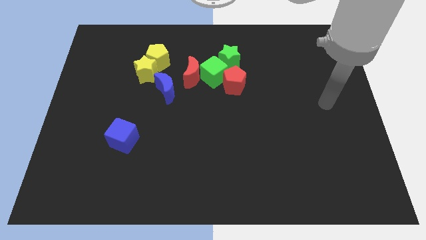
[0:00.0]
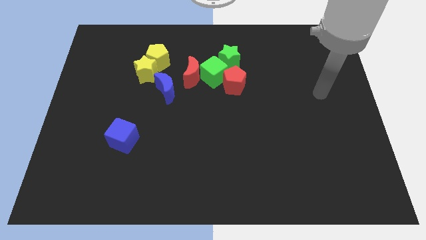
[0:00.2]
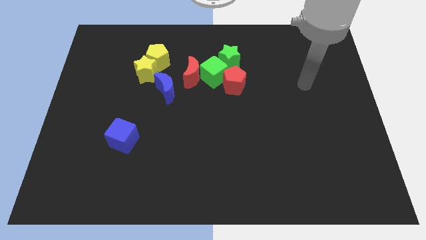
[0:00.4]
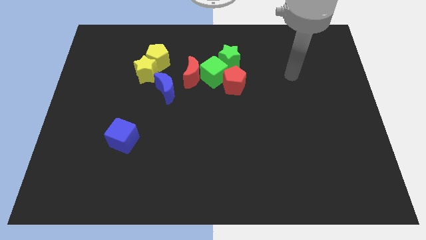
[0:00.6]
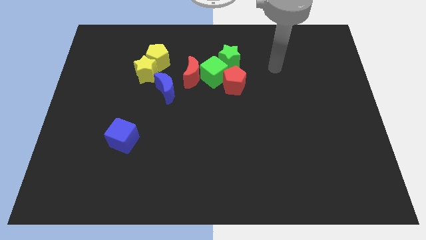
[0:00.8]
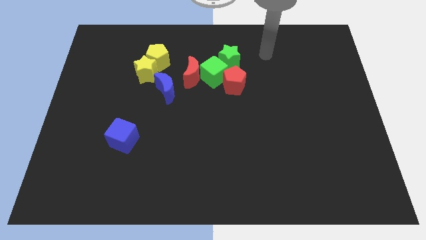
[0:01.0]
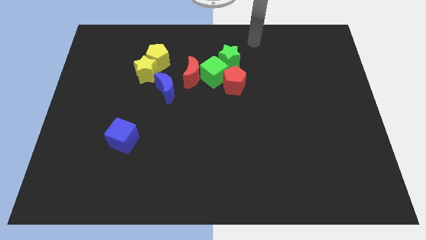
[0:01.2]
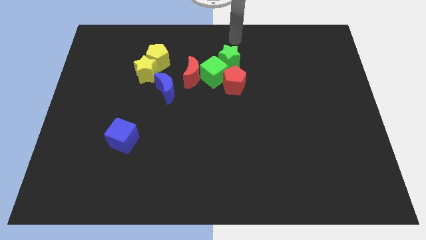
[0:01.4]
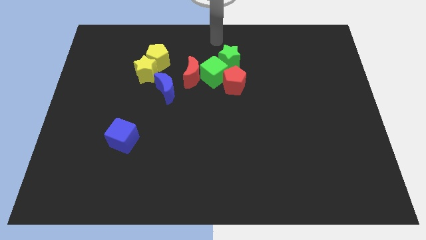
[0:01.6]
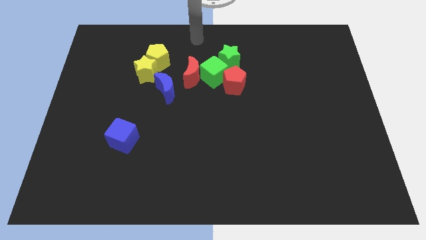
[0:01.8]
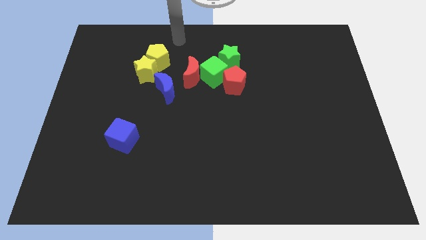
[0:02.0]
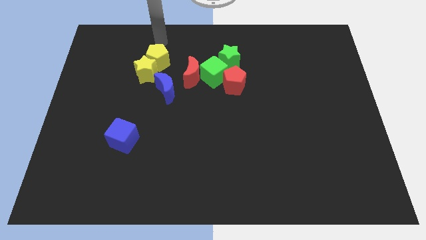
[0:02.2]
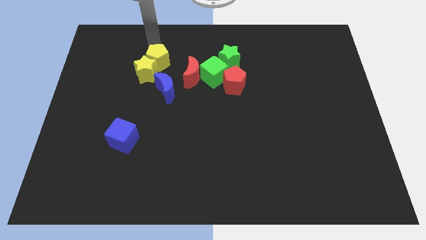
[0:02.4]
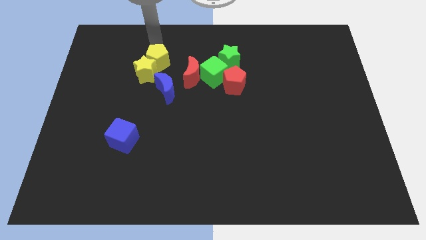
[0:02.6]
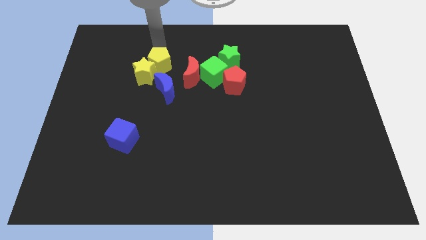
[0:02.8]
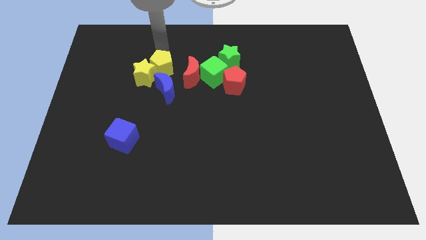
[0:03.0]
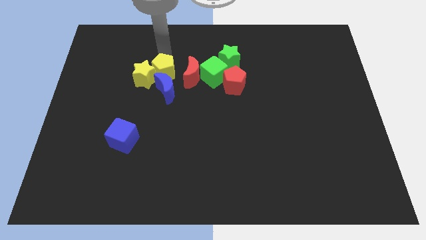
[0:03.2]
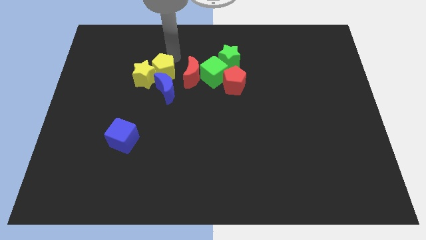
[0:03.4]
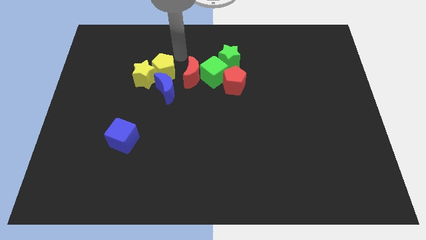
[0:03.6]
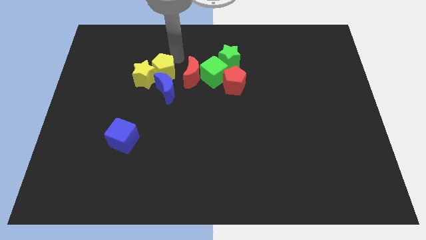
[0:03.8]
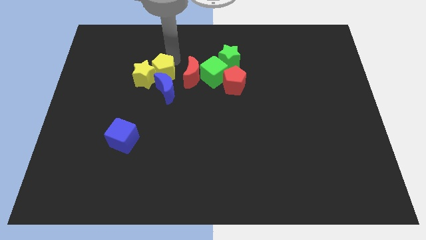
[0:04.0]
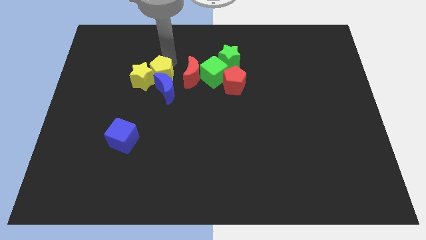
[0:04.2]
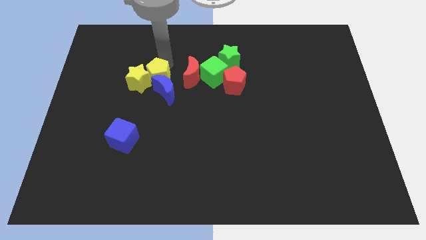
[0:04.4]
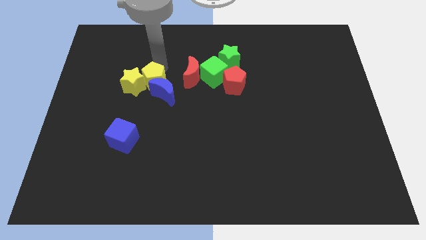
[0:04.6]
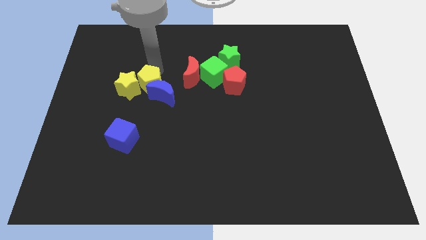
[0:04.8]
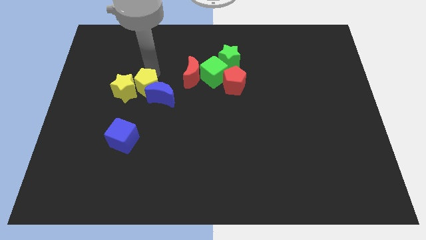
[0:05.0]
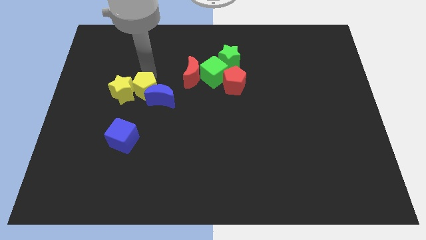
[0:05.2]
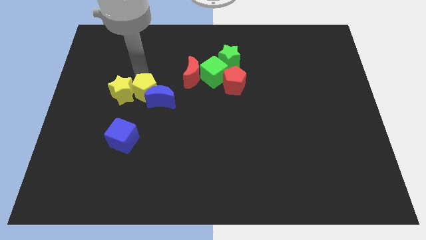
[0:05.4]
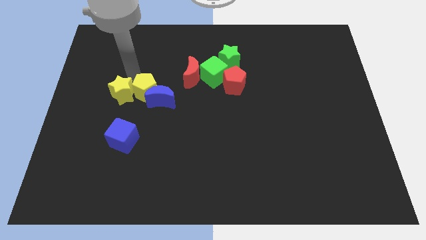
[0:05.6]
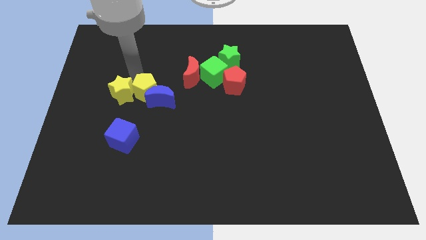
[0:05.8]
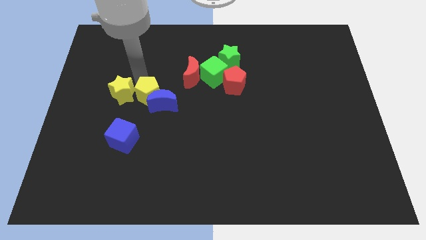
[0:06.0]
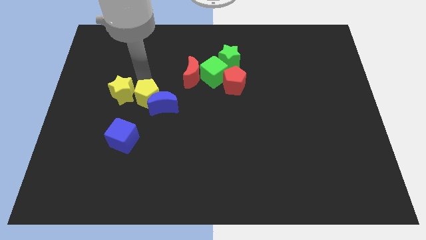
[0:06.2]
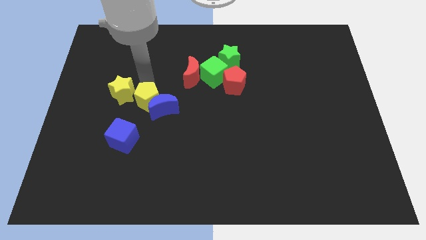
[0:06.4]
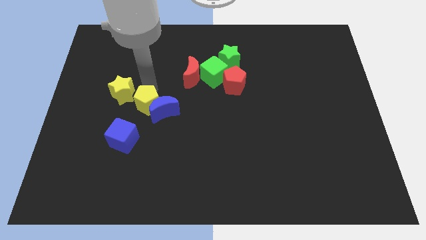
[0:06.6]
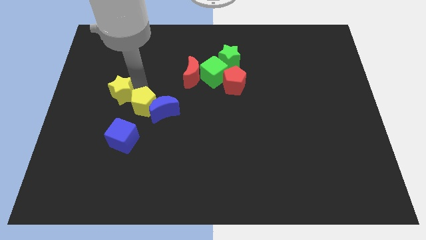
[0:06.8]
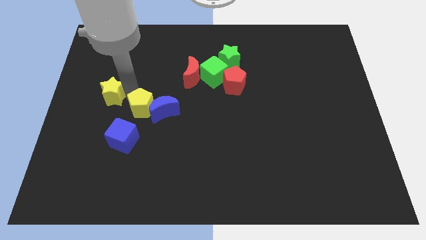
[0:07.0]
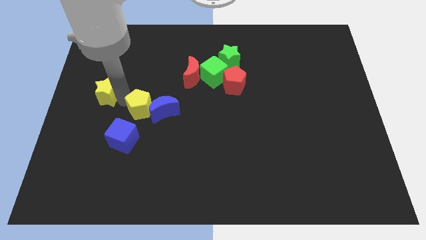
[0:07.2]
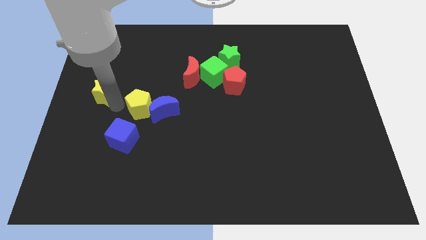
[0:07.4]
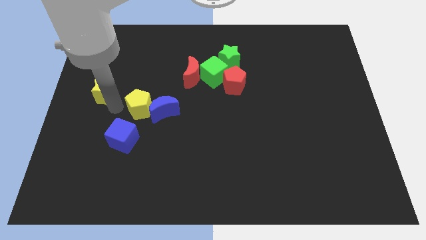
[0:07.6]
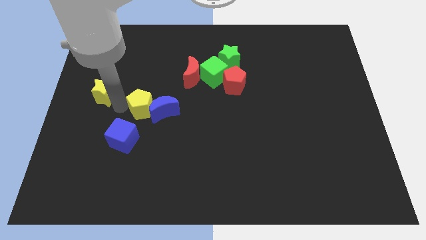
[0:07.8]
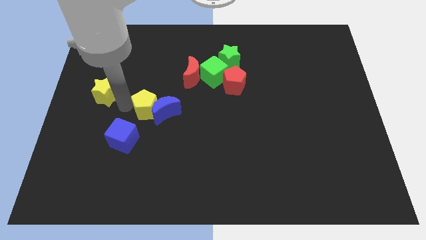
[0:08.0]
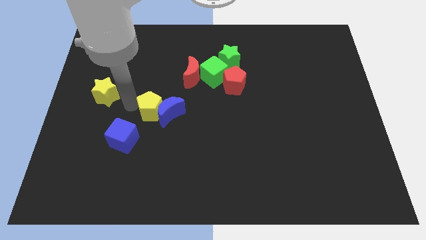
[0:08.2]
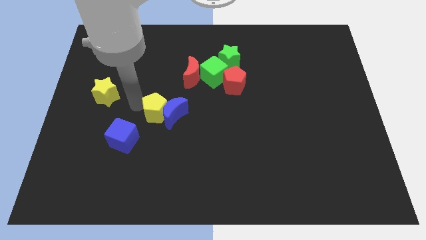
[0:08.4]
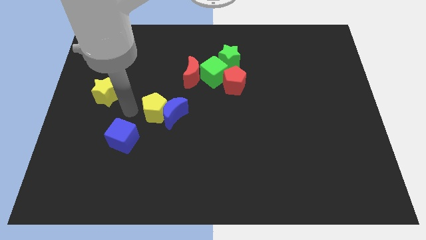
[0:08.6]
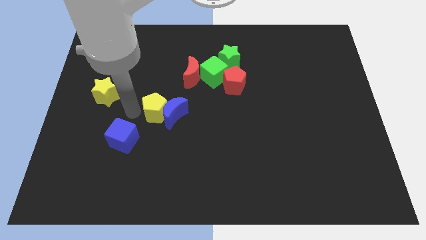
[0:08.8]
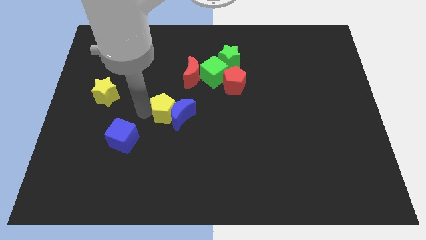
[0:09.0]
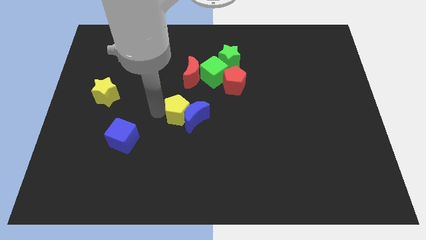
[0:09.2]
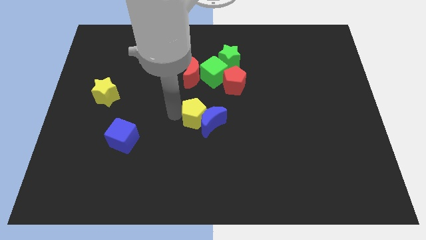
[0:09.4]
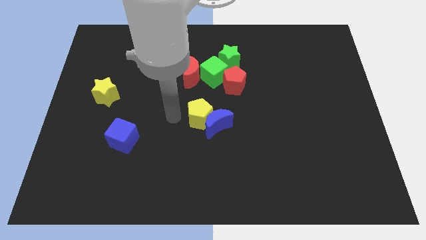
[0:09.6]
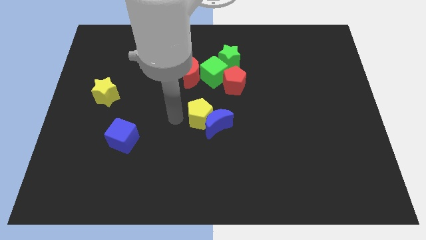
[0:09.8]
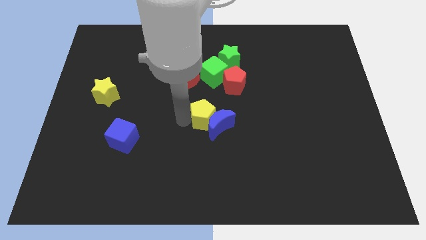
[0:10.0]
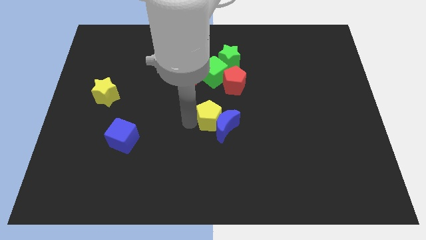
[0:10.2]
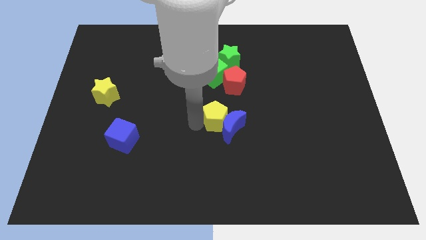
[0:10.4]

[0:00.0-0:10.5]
slide the yellow pentagon to the bottom of the red pentagon

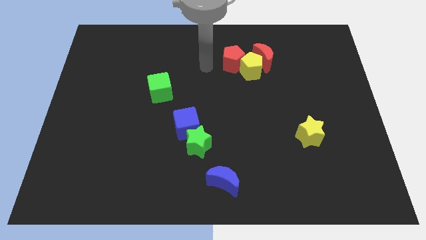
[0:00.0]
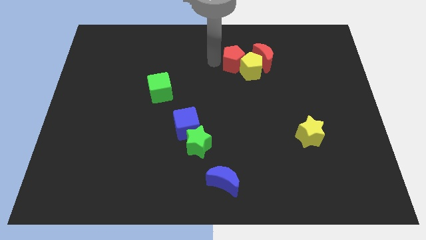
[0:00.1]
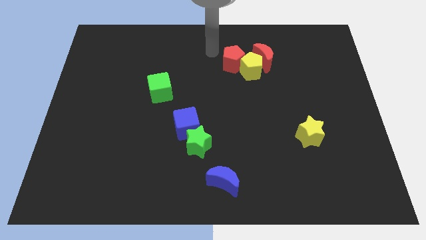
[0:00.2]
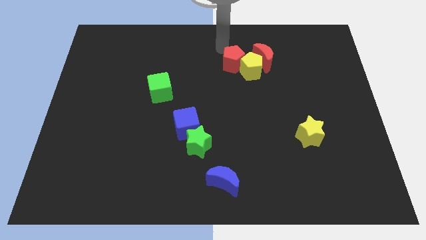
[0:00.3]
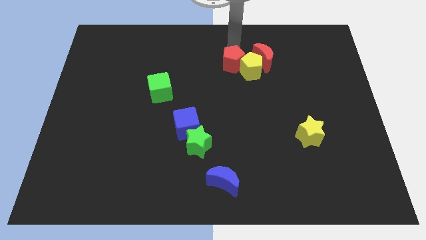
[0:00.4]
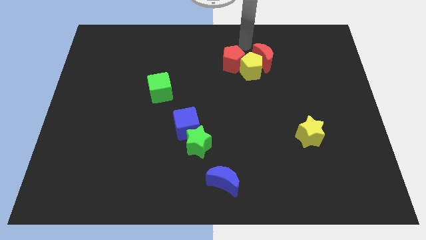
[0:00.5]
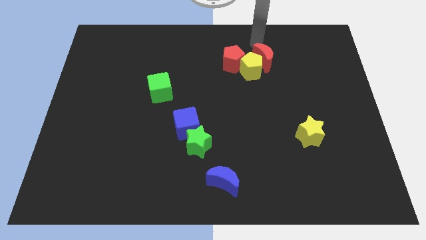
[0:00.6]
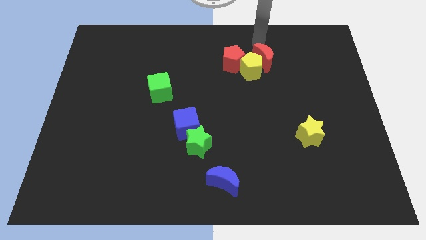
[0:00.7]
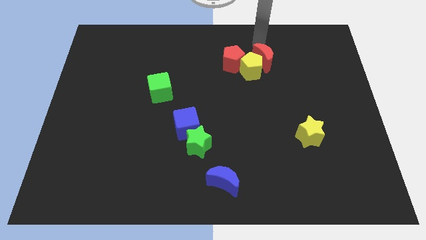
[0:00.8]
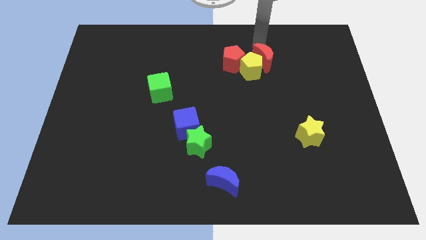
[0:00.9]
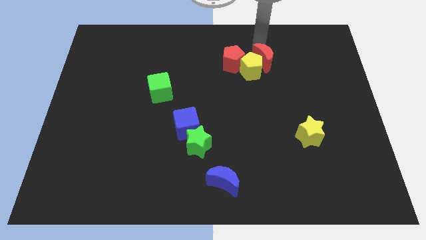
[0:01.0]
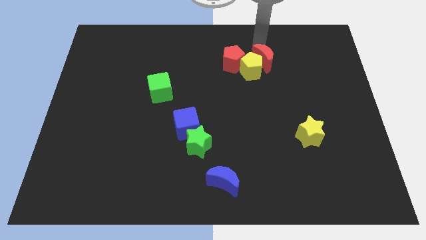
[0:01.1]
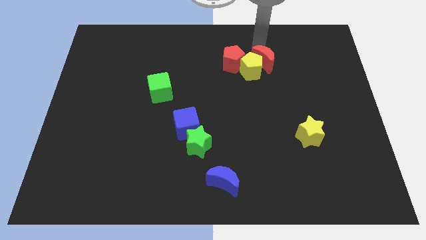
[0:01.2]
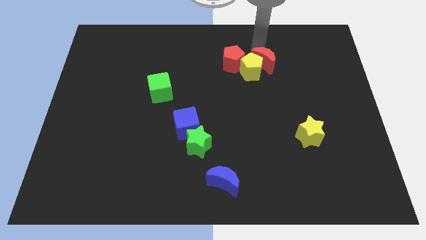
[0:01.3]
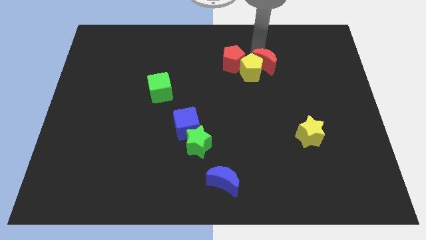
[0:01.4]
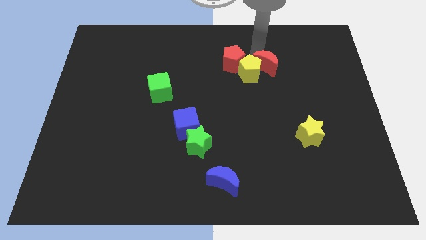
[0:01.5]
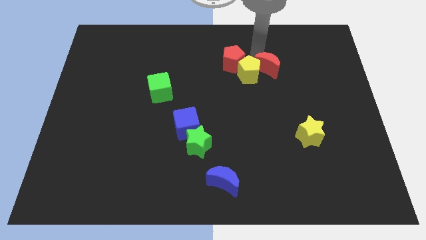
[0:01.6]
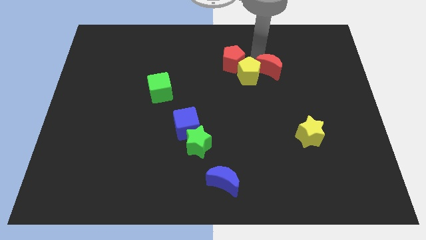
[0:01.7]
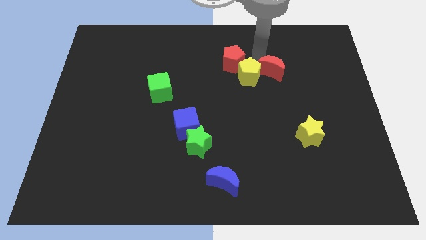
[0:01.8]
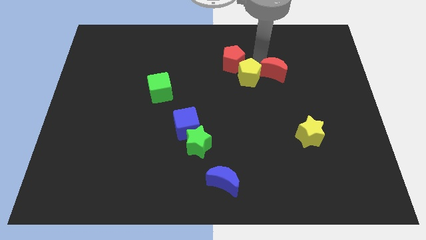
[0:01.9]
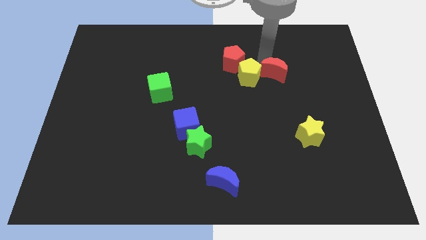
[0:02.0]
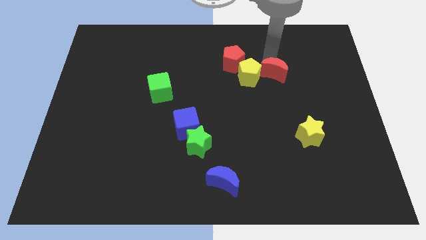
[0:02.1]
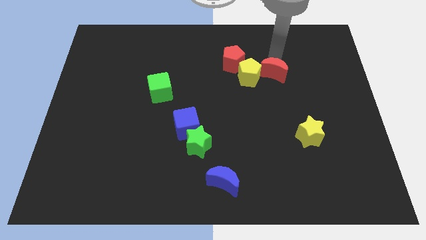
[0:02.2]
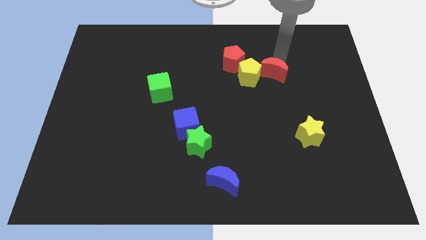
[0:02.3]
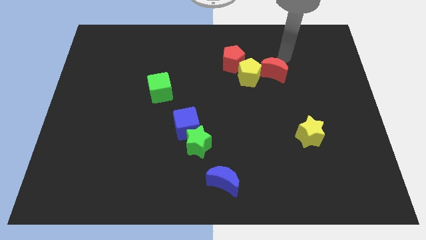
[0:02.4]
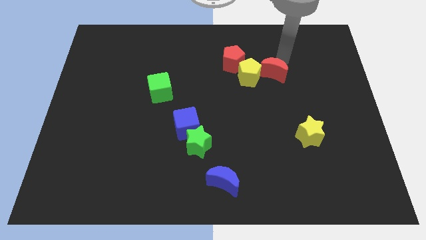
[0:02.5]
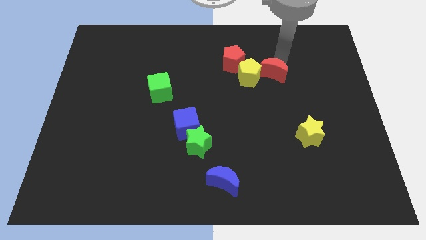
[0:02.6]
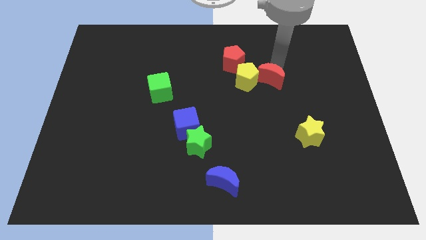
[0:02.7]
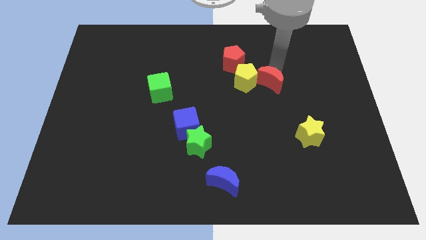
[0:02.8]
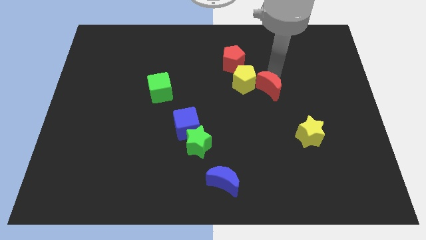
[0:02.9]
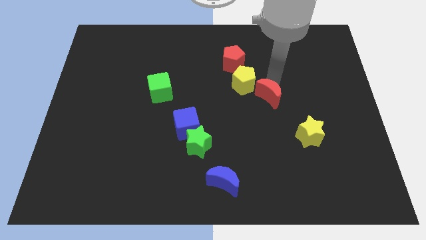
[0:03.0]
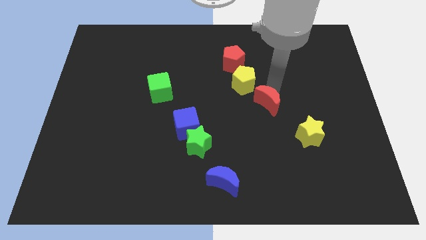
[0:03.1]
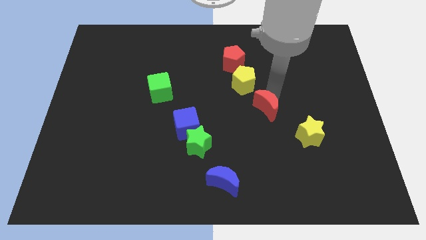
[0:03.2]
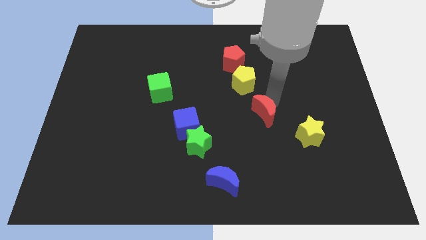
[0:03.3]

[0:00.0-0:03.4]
slide the red moon to the bottom side of the yellow pentagon
